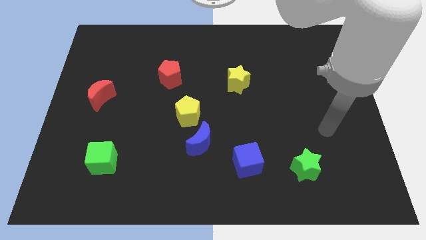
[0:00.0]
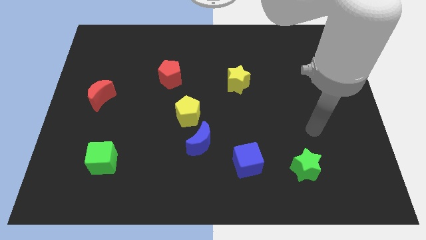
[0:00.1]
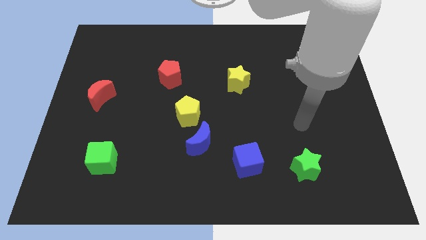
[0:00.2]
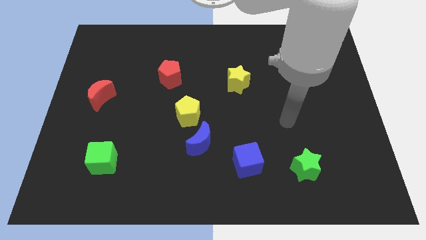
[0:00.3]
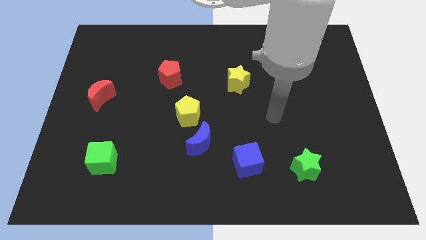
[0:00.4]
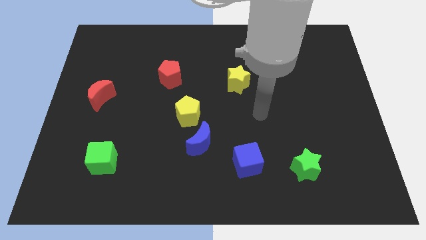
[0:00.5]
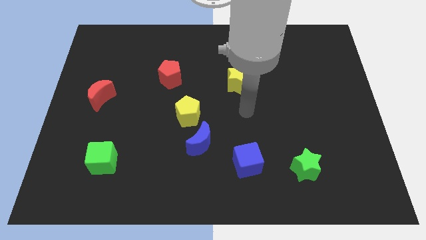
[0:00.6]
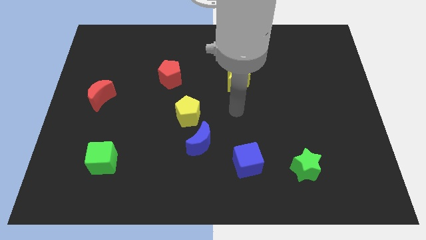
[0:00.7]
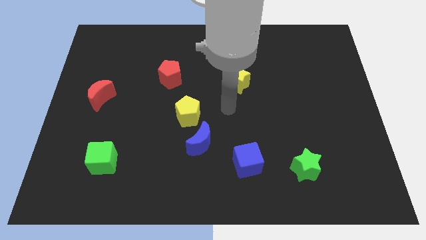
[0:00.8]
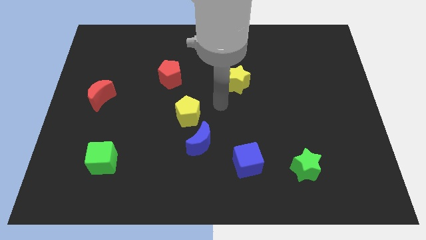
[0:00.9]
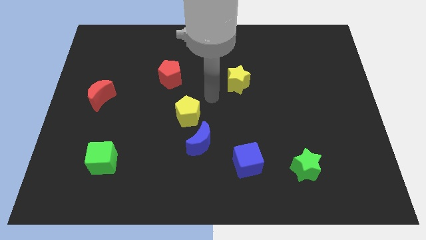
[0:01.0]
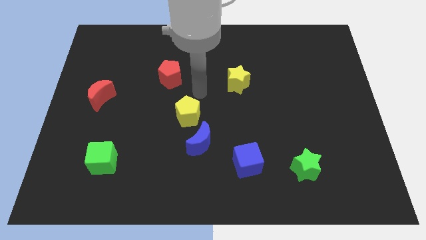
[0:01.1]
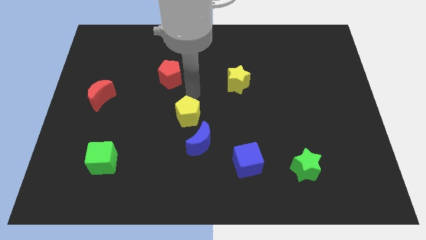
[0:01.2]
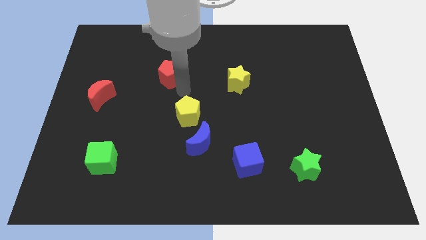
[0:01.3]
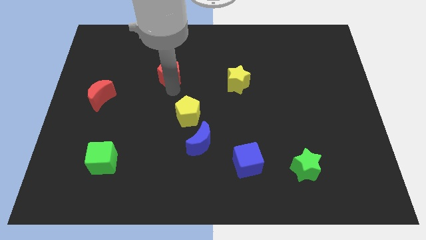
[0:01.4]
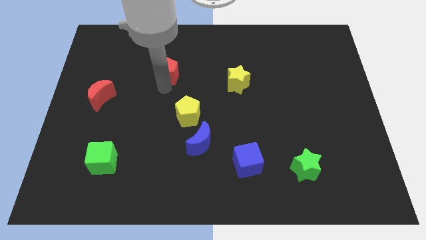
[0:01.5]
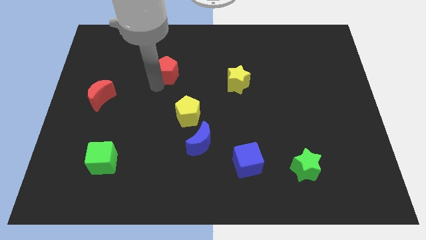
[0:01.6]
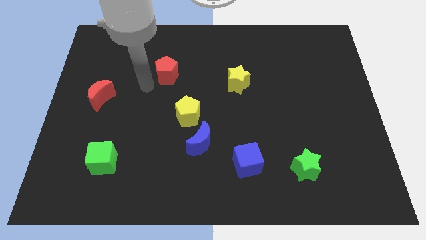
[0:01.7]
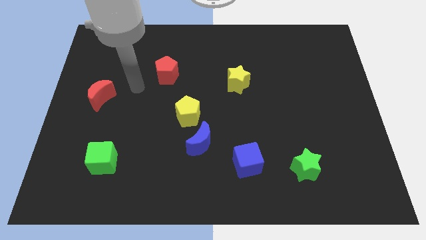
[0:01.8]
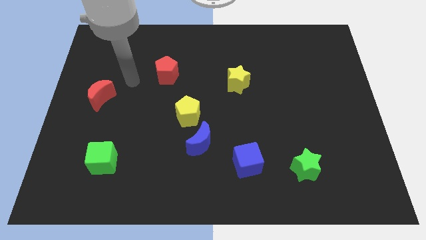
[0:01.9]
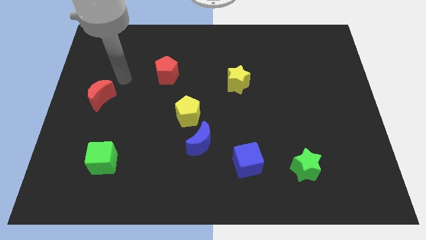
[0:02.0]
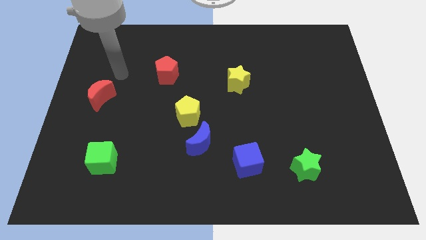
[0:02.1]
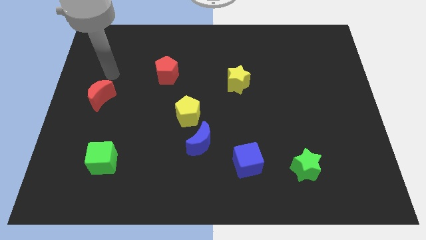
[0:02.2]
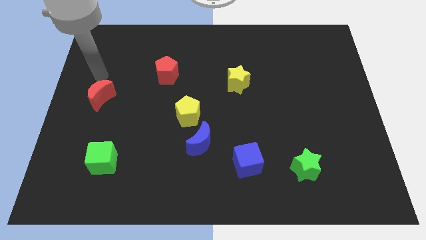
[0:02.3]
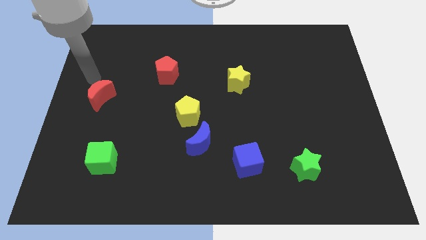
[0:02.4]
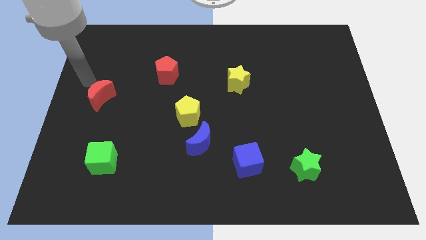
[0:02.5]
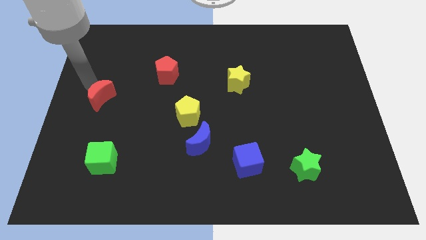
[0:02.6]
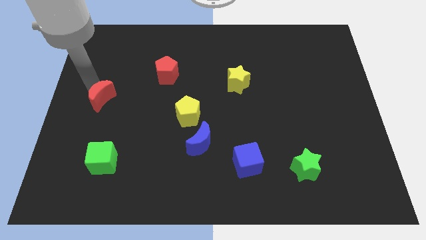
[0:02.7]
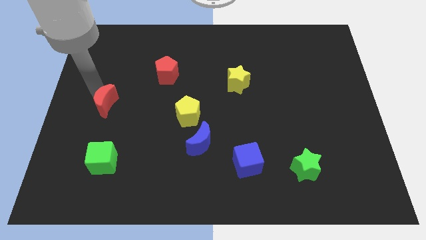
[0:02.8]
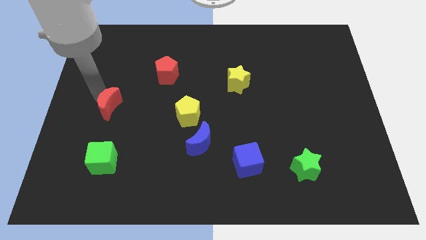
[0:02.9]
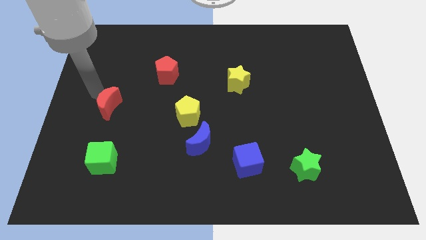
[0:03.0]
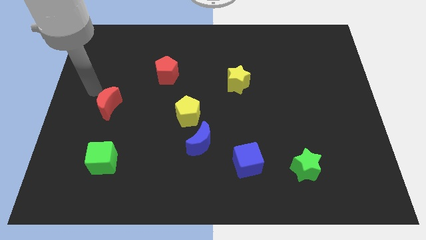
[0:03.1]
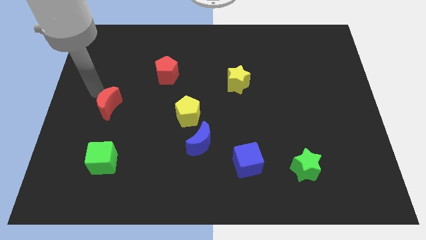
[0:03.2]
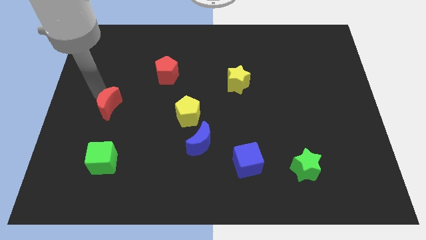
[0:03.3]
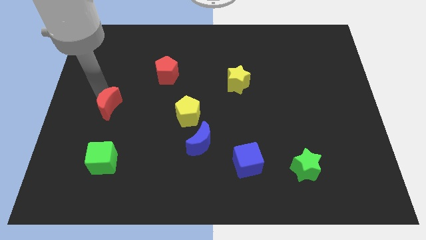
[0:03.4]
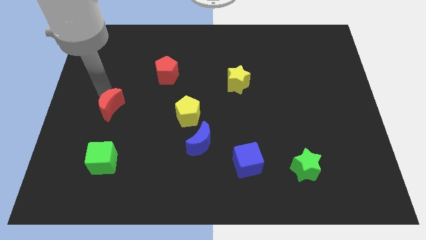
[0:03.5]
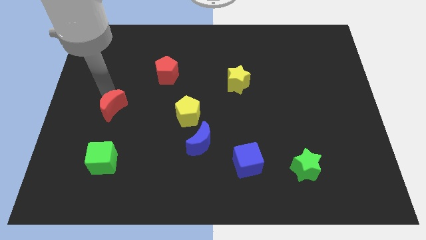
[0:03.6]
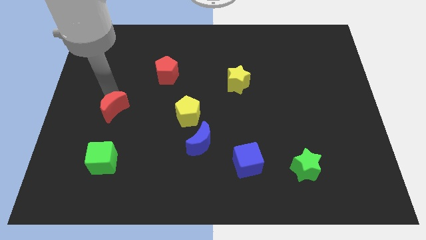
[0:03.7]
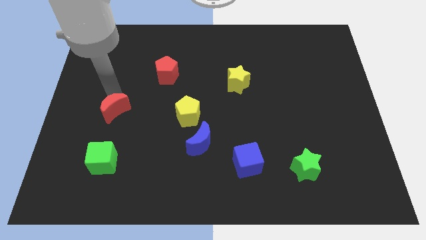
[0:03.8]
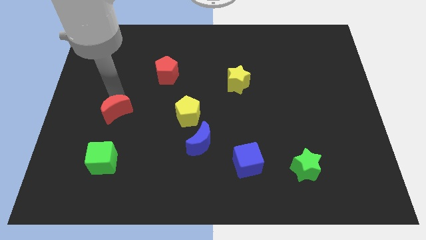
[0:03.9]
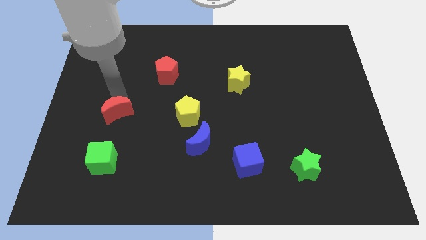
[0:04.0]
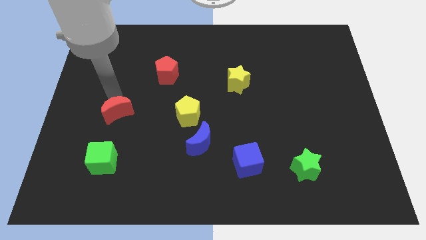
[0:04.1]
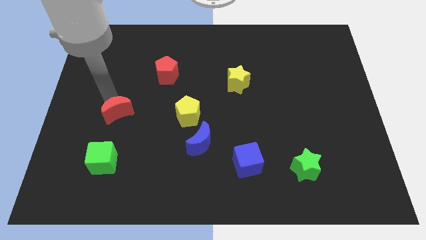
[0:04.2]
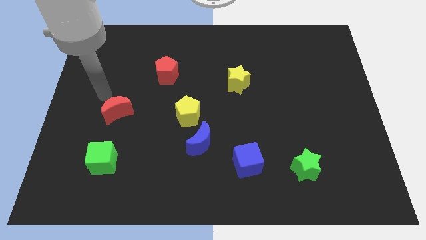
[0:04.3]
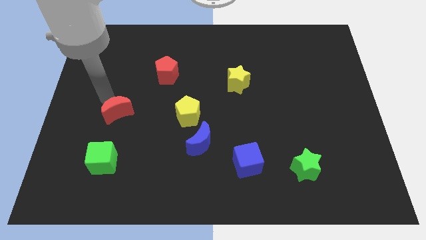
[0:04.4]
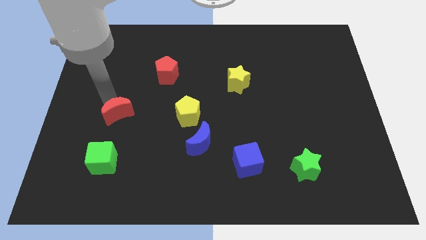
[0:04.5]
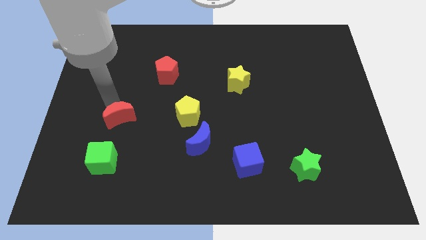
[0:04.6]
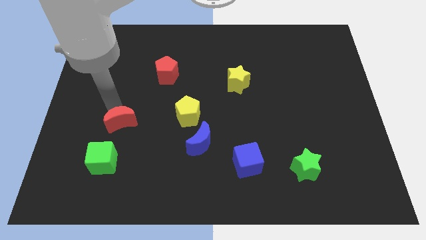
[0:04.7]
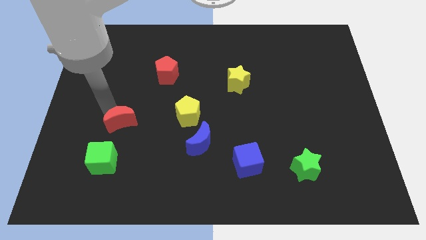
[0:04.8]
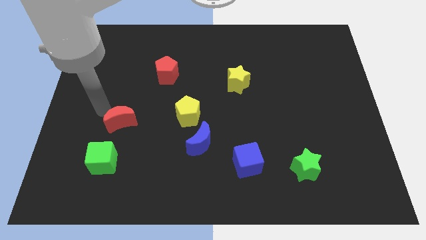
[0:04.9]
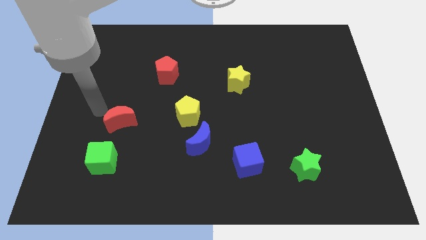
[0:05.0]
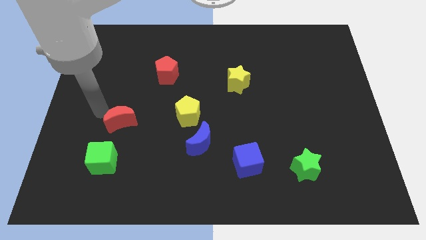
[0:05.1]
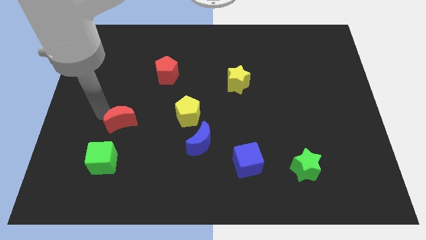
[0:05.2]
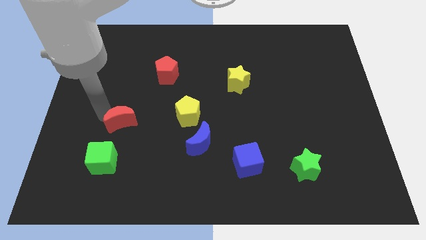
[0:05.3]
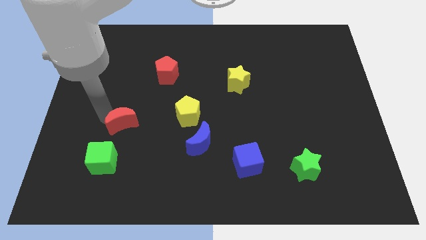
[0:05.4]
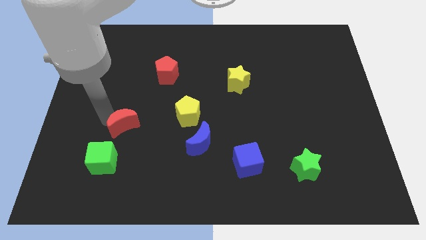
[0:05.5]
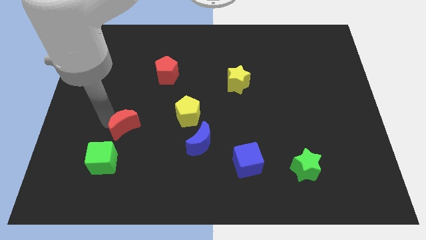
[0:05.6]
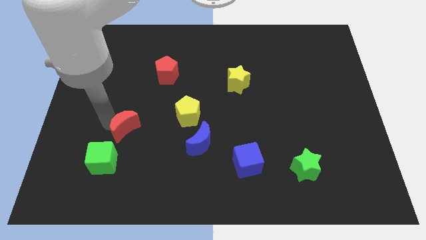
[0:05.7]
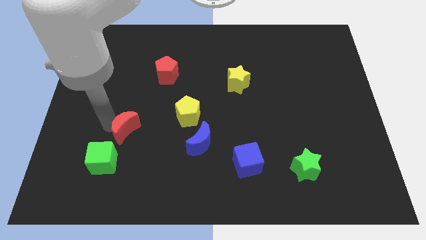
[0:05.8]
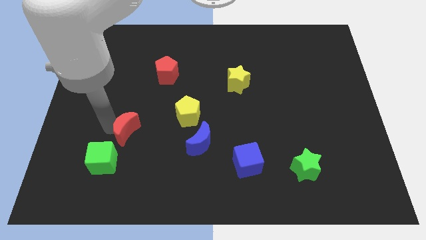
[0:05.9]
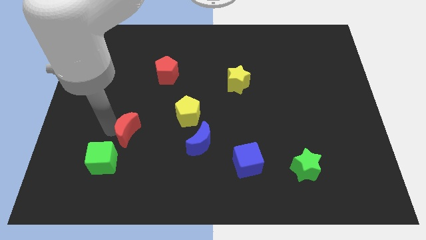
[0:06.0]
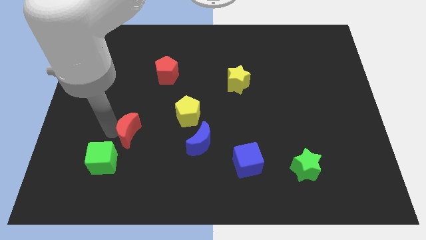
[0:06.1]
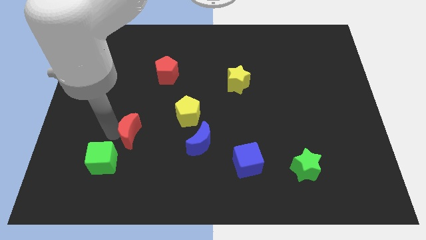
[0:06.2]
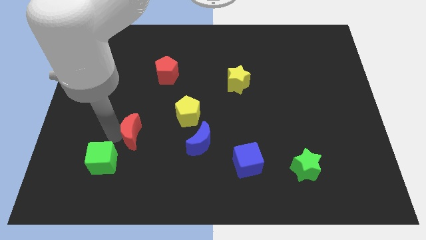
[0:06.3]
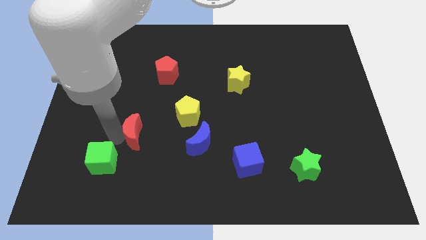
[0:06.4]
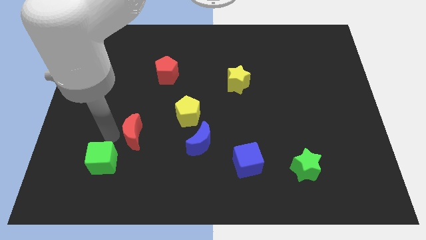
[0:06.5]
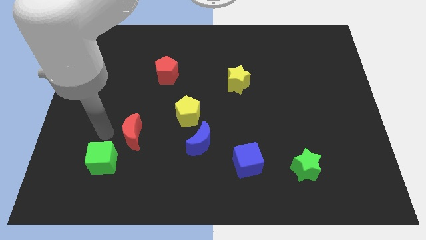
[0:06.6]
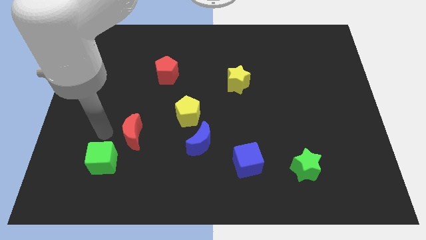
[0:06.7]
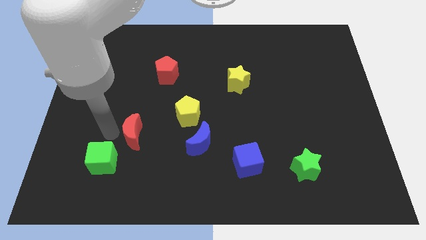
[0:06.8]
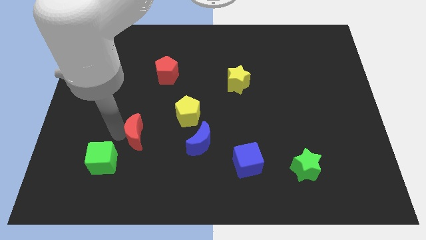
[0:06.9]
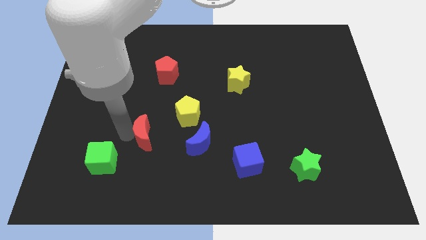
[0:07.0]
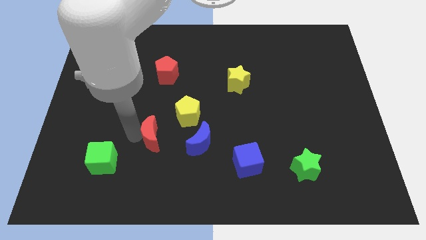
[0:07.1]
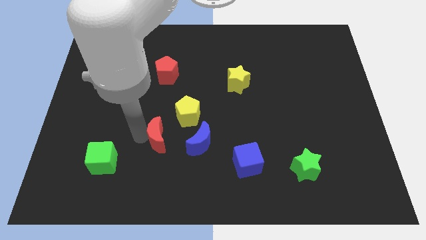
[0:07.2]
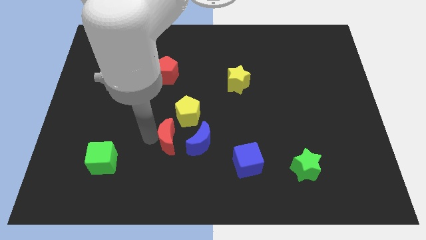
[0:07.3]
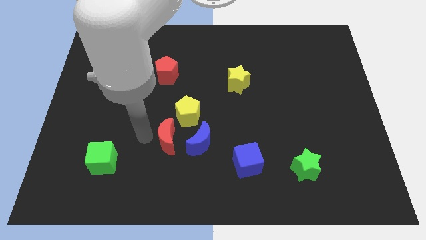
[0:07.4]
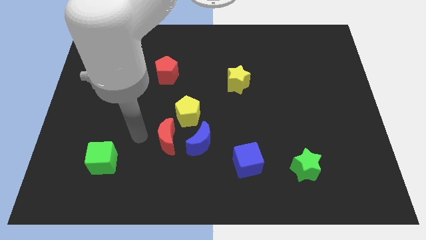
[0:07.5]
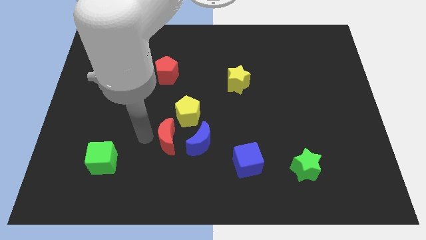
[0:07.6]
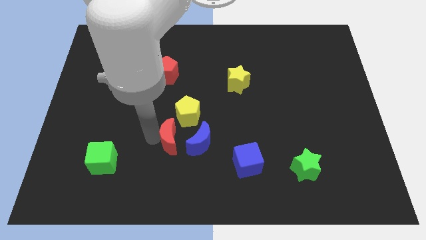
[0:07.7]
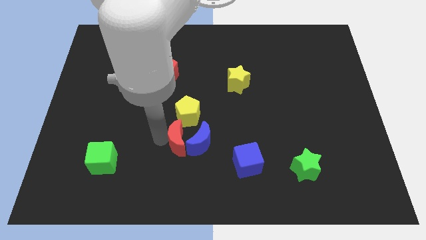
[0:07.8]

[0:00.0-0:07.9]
put the red moon towards the blue moon
